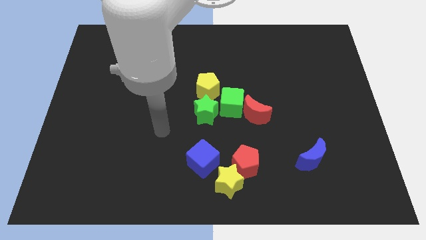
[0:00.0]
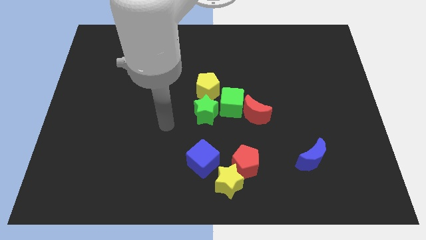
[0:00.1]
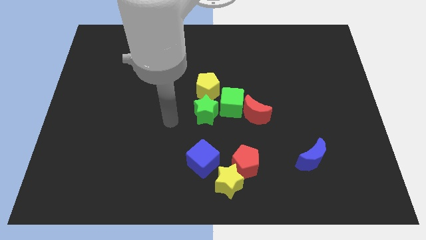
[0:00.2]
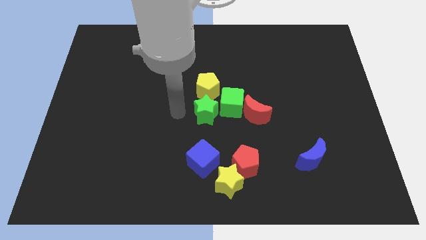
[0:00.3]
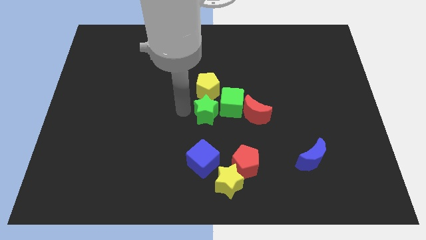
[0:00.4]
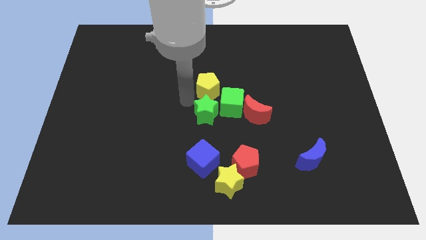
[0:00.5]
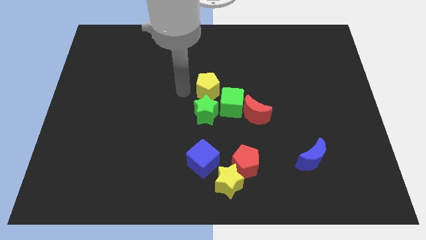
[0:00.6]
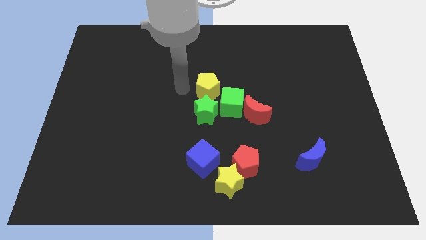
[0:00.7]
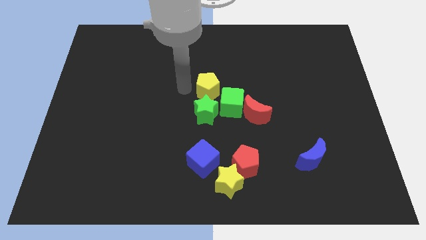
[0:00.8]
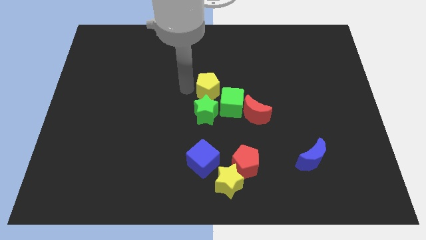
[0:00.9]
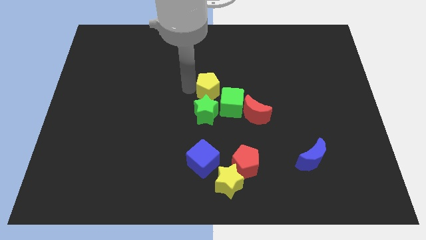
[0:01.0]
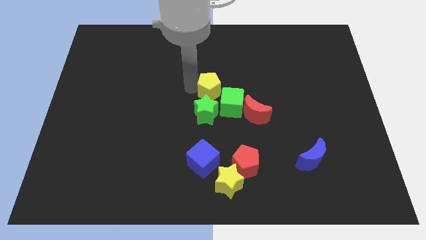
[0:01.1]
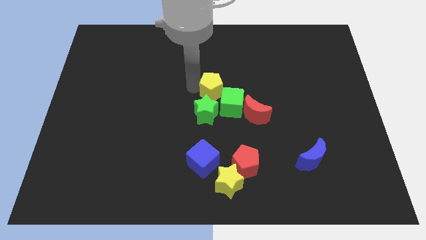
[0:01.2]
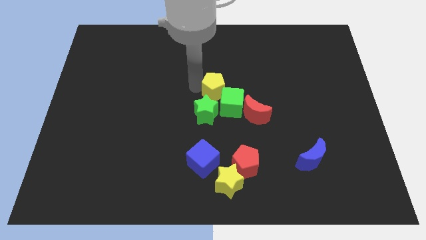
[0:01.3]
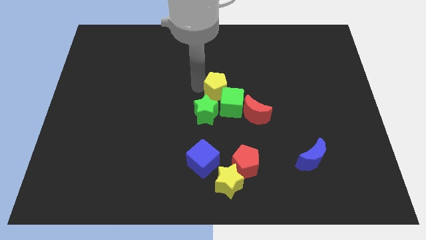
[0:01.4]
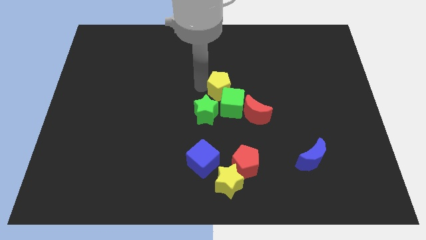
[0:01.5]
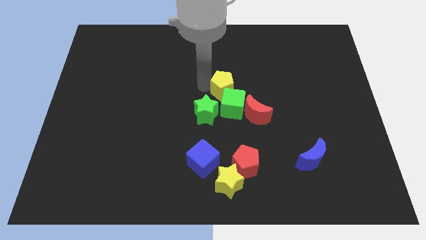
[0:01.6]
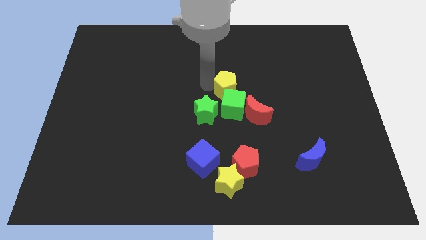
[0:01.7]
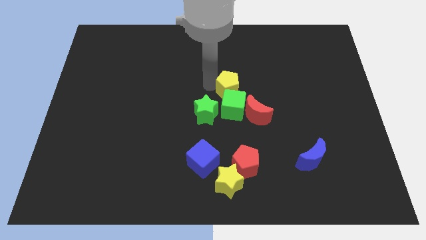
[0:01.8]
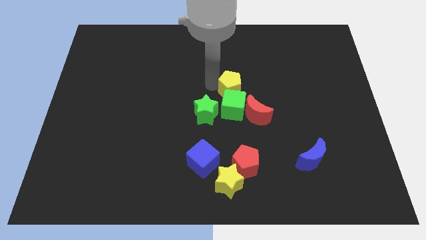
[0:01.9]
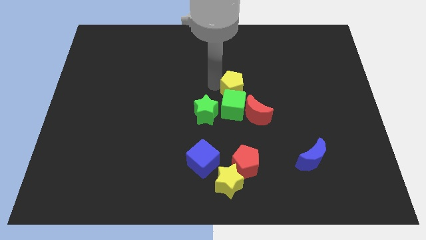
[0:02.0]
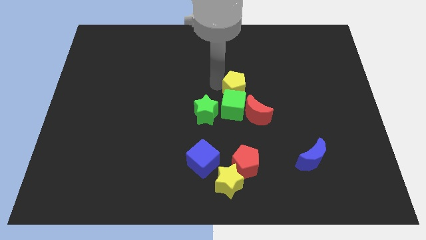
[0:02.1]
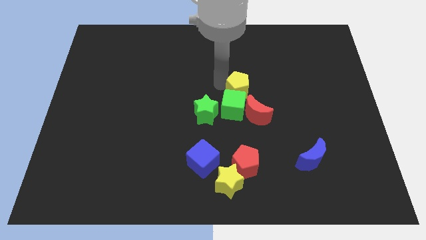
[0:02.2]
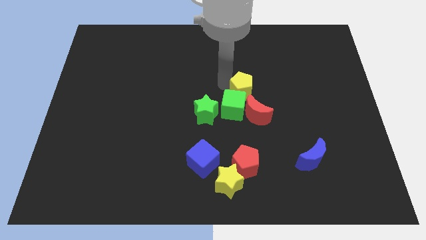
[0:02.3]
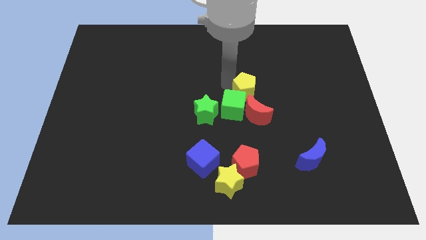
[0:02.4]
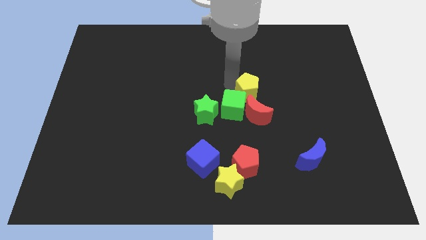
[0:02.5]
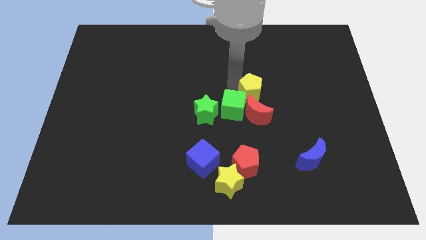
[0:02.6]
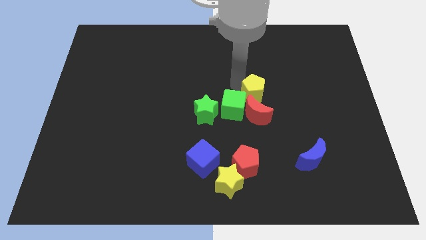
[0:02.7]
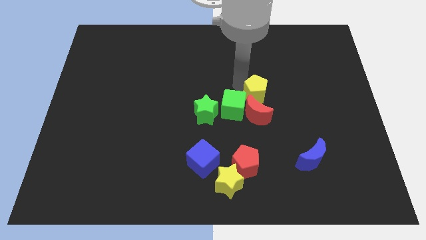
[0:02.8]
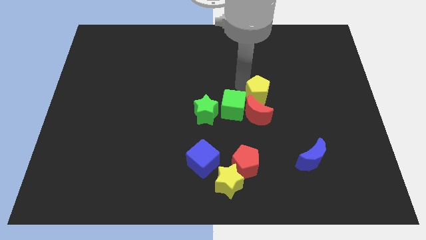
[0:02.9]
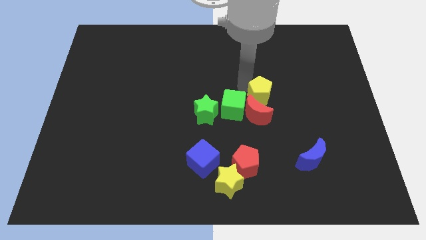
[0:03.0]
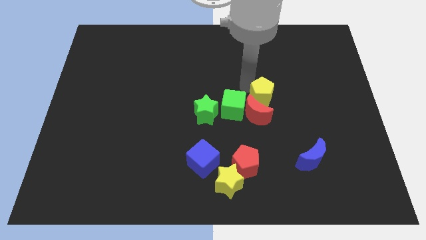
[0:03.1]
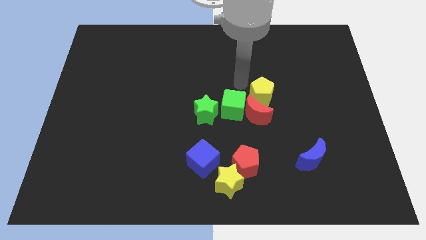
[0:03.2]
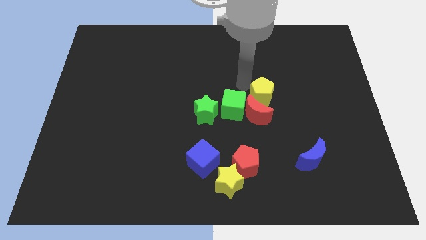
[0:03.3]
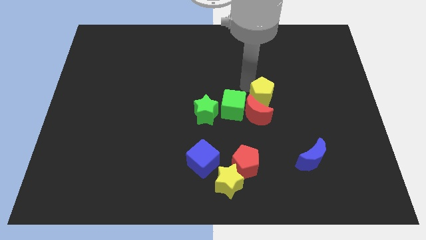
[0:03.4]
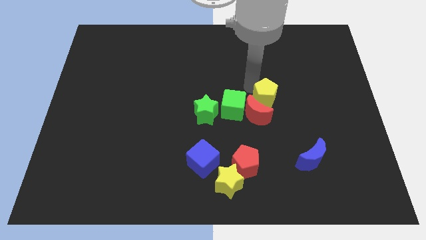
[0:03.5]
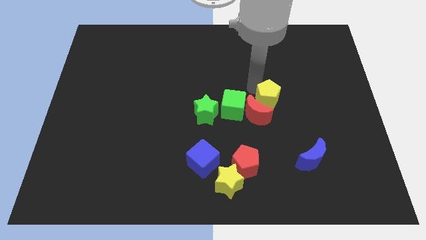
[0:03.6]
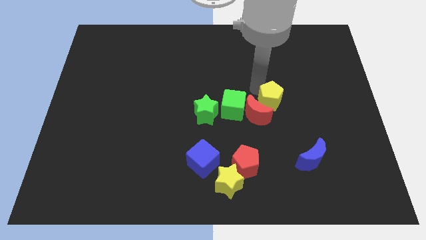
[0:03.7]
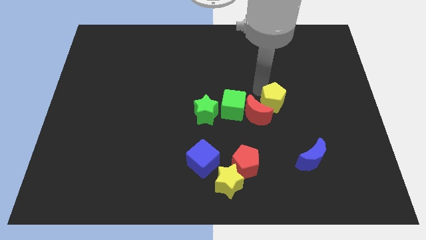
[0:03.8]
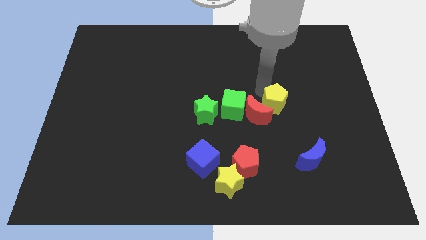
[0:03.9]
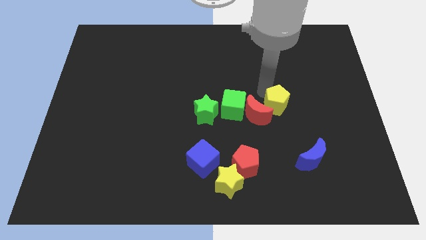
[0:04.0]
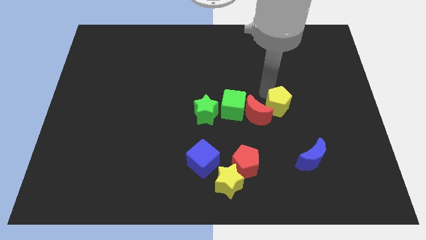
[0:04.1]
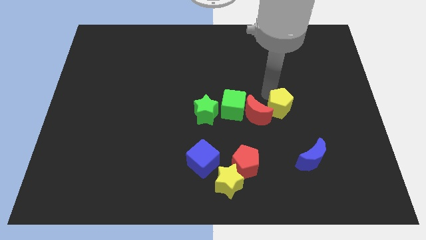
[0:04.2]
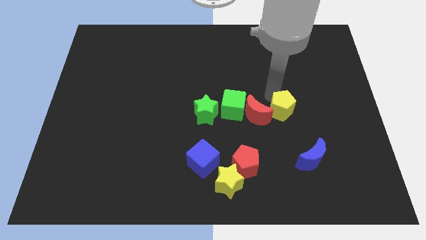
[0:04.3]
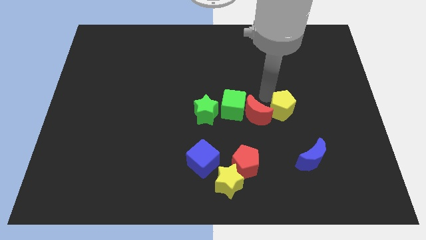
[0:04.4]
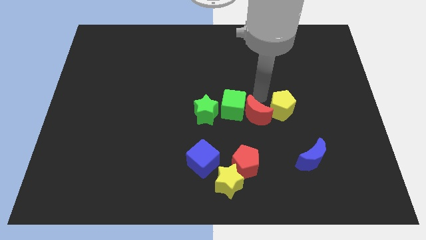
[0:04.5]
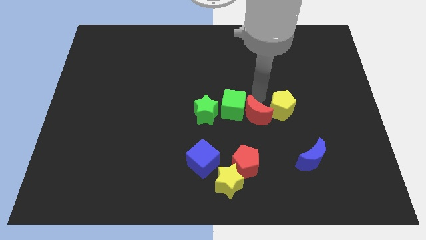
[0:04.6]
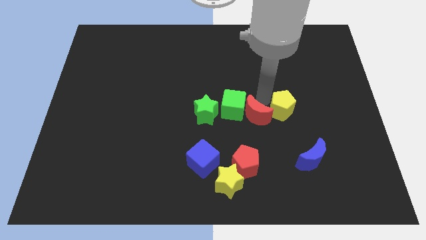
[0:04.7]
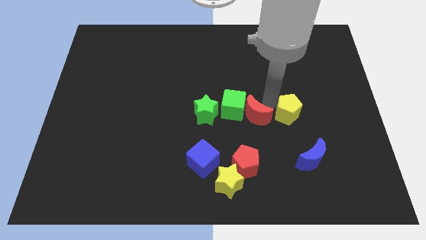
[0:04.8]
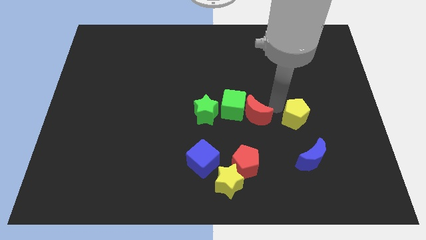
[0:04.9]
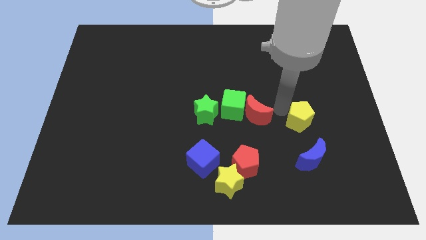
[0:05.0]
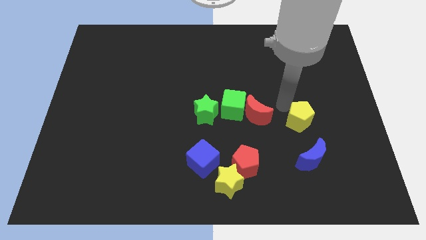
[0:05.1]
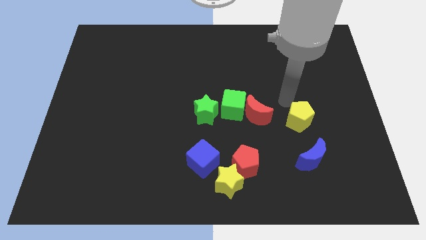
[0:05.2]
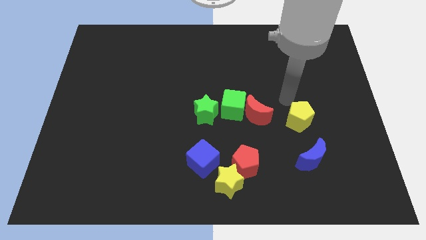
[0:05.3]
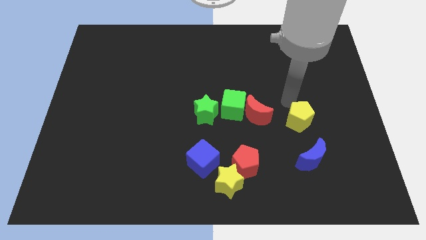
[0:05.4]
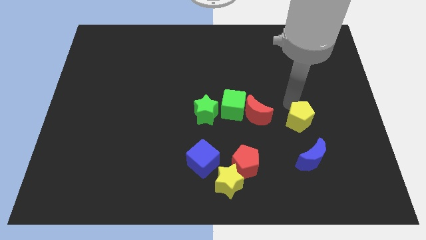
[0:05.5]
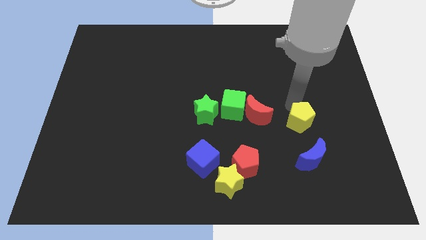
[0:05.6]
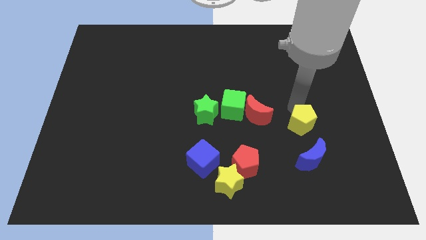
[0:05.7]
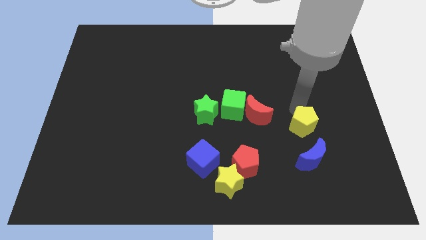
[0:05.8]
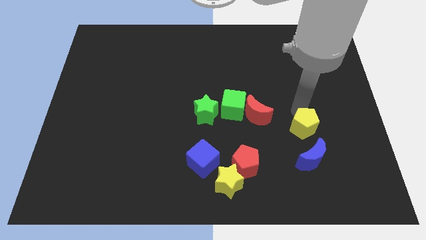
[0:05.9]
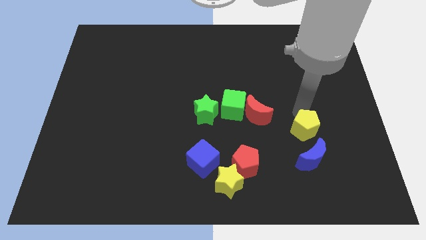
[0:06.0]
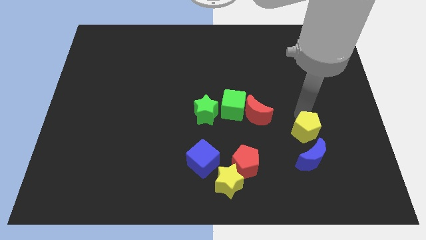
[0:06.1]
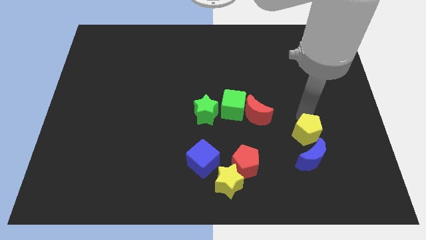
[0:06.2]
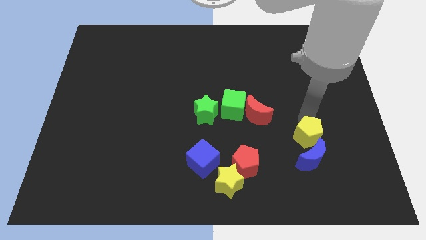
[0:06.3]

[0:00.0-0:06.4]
push the yellow pentagon next to the blue moon

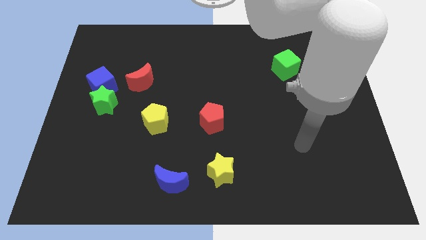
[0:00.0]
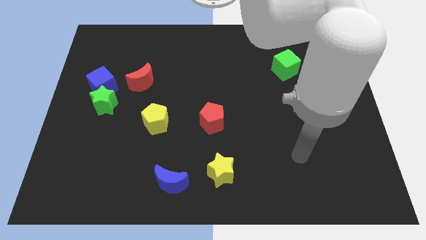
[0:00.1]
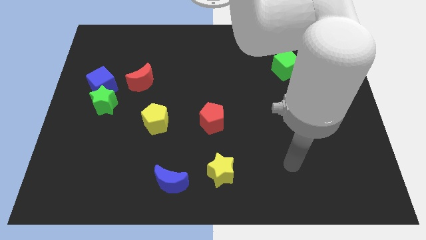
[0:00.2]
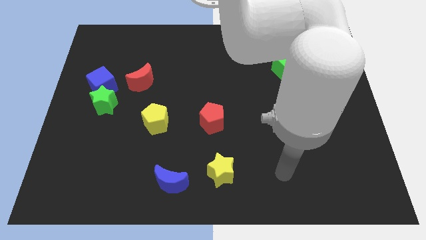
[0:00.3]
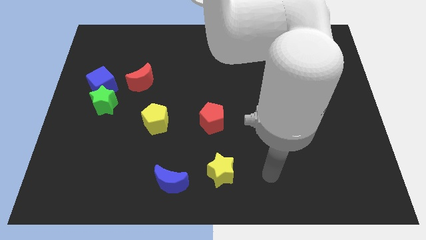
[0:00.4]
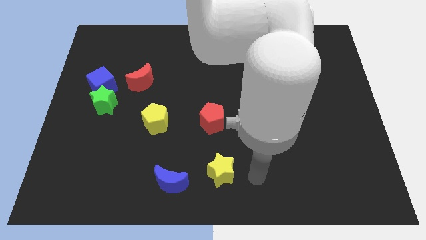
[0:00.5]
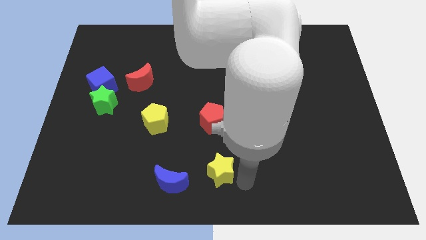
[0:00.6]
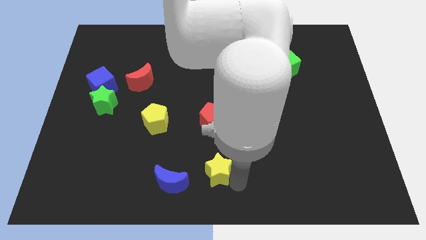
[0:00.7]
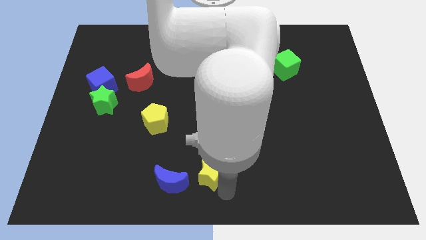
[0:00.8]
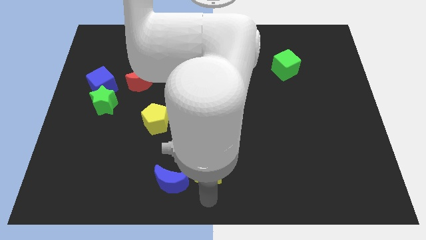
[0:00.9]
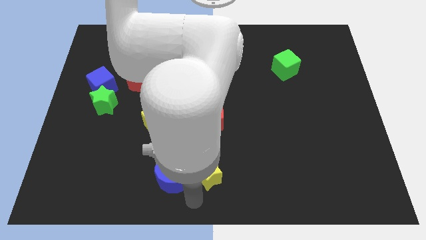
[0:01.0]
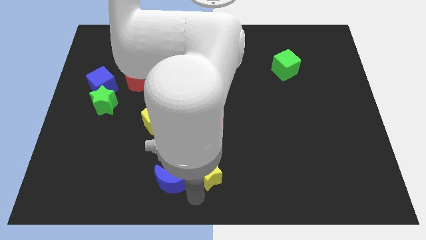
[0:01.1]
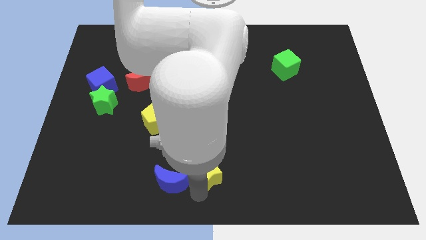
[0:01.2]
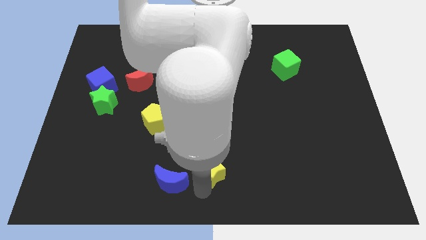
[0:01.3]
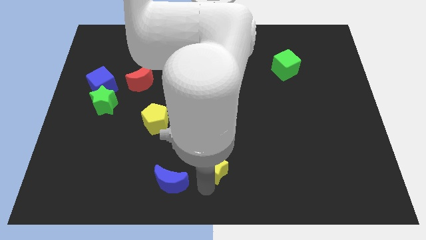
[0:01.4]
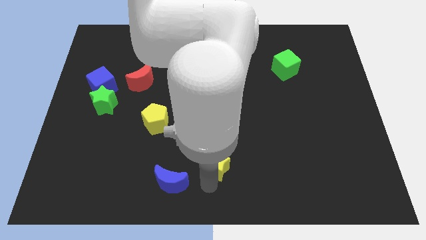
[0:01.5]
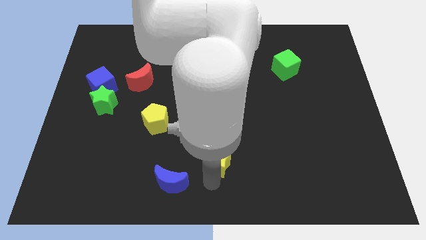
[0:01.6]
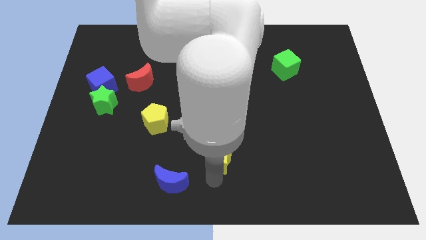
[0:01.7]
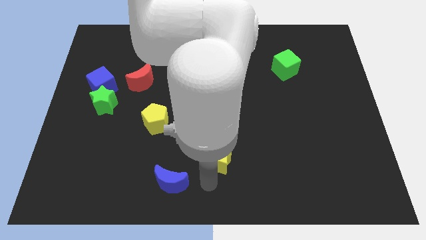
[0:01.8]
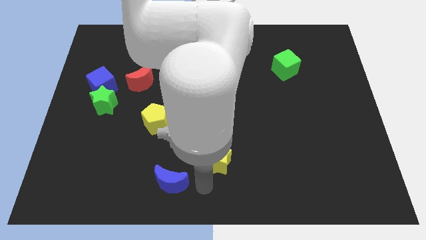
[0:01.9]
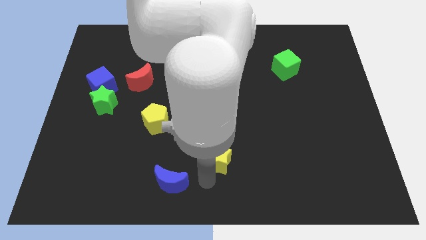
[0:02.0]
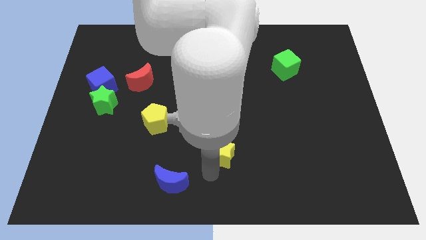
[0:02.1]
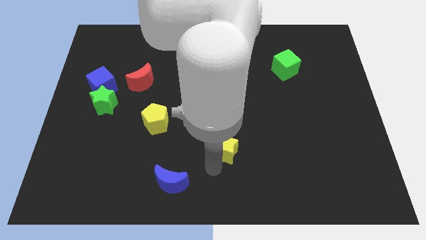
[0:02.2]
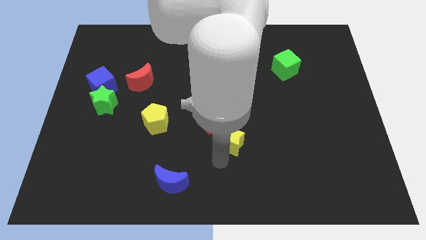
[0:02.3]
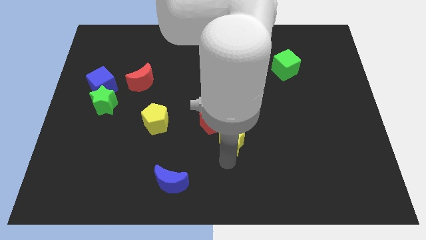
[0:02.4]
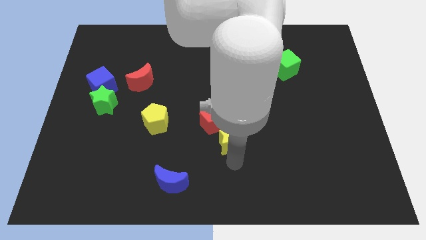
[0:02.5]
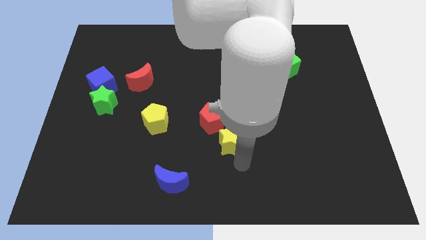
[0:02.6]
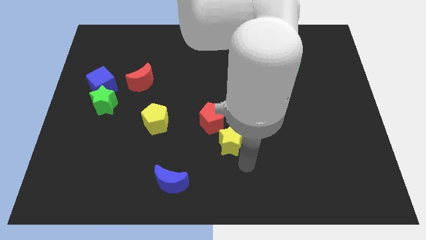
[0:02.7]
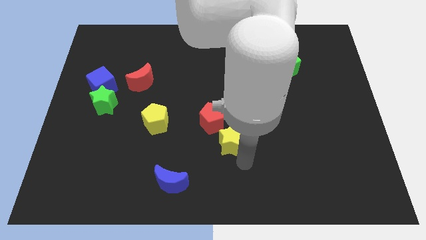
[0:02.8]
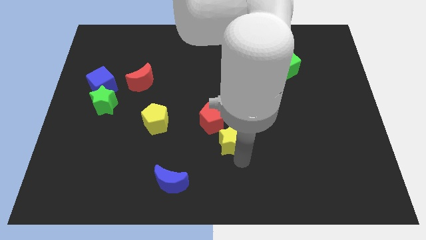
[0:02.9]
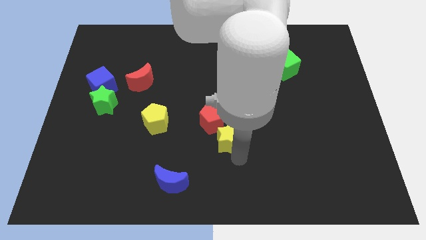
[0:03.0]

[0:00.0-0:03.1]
push the yellow star towards the red pentagon
